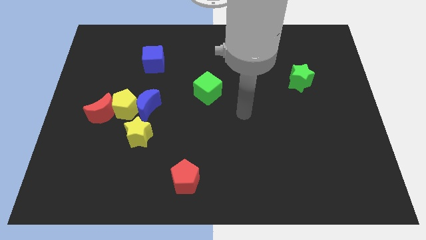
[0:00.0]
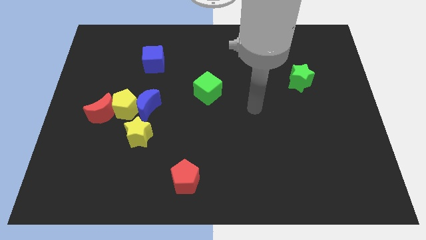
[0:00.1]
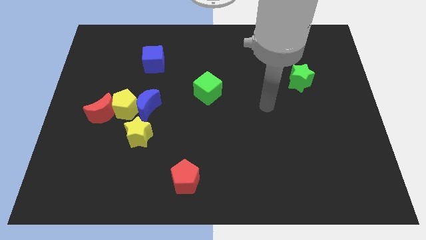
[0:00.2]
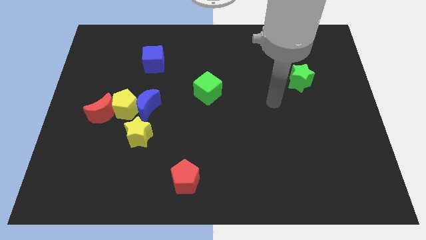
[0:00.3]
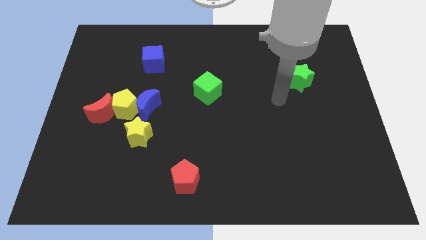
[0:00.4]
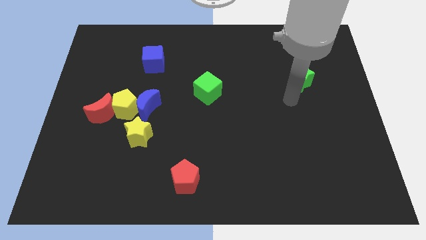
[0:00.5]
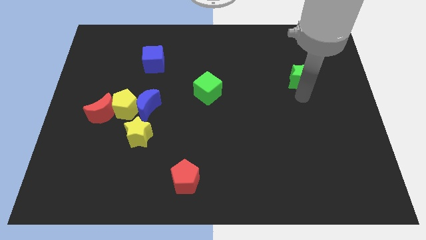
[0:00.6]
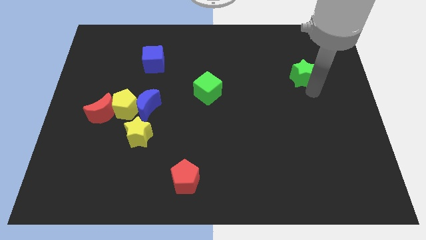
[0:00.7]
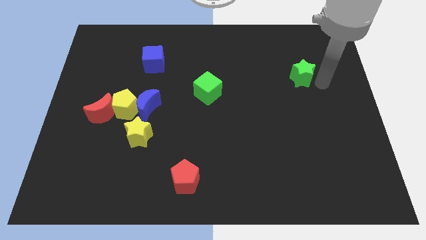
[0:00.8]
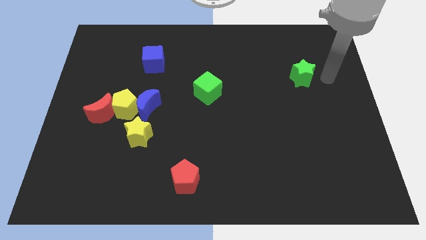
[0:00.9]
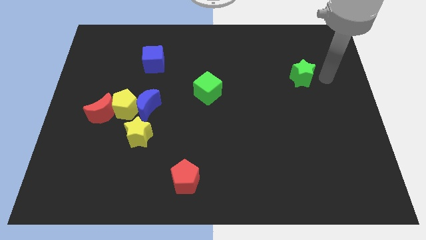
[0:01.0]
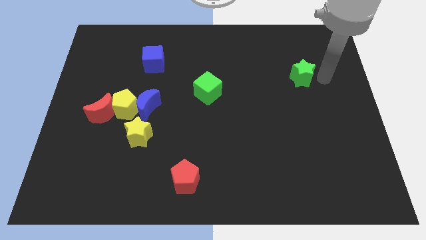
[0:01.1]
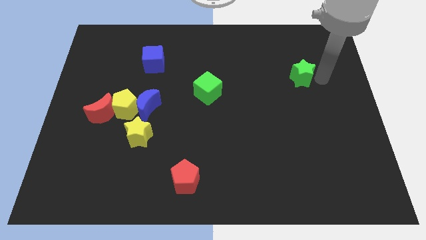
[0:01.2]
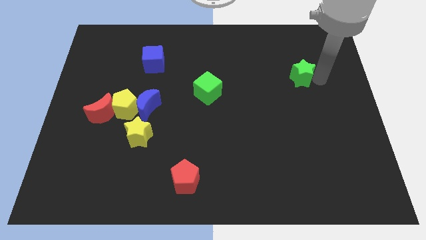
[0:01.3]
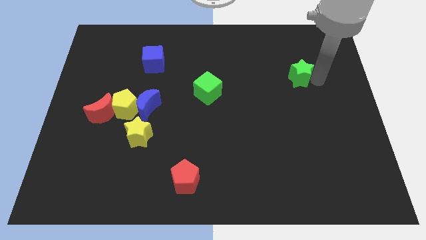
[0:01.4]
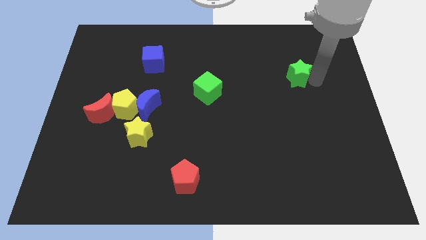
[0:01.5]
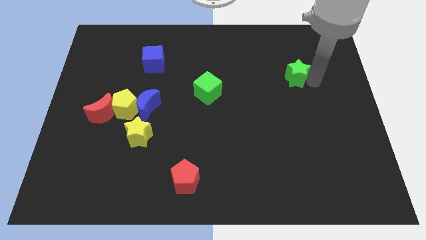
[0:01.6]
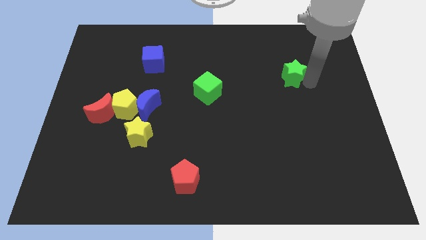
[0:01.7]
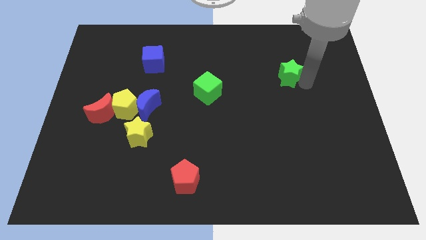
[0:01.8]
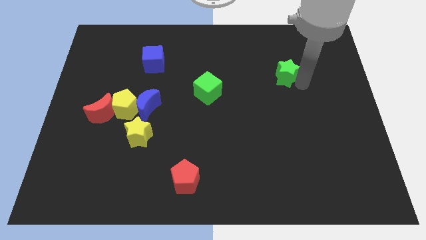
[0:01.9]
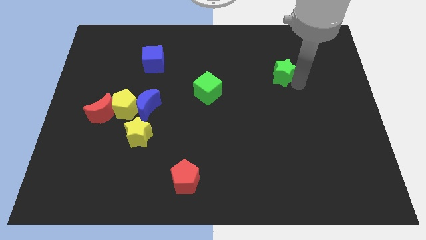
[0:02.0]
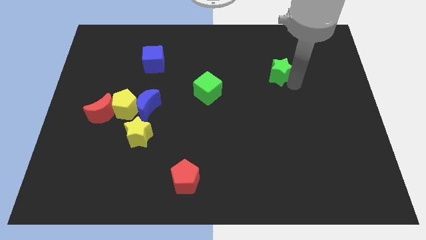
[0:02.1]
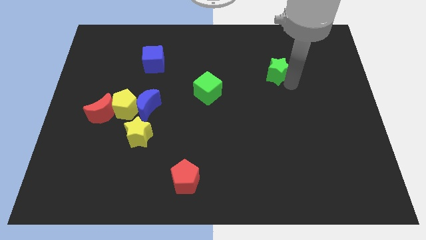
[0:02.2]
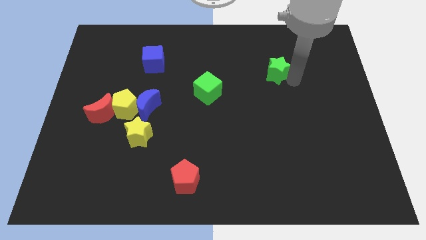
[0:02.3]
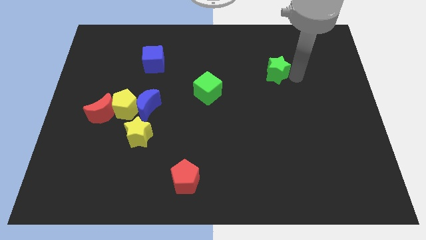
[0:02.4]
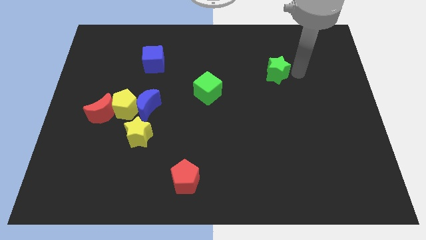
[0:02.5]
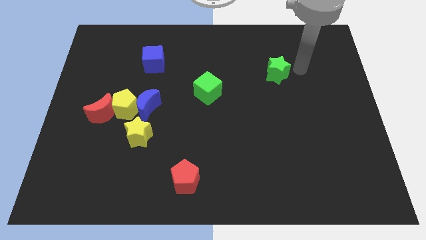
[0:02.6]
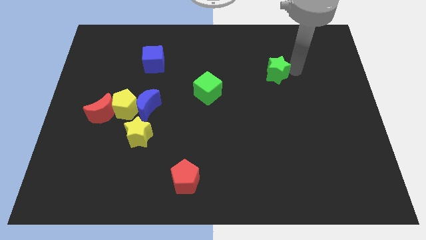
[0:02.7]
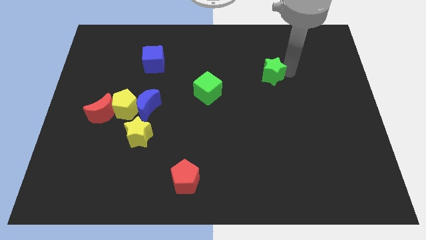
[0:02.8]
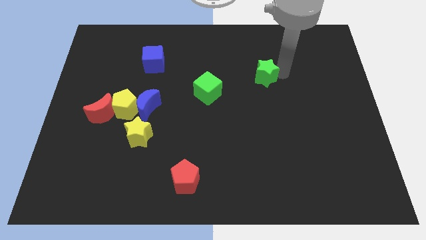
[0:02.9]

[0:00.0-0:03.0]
slide the green star a little left

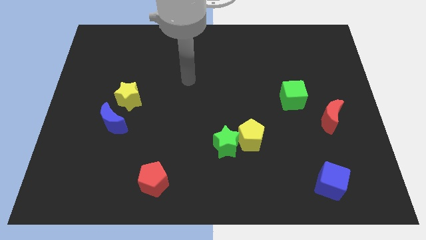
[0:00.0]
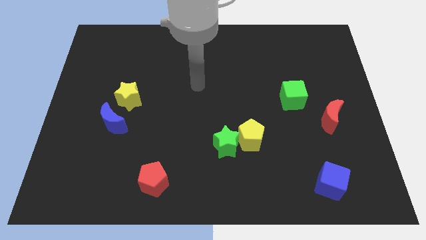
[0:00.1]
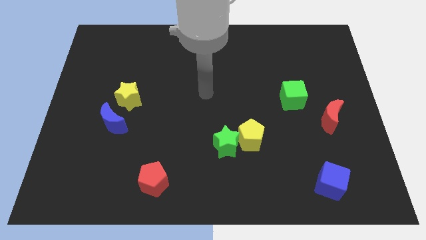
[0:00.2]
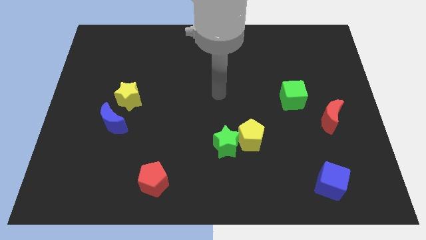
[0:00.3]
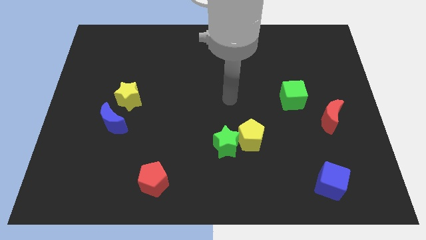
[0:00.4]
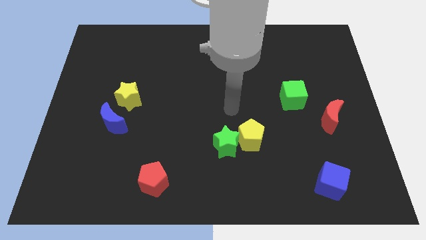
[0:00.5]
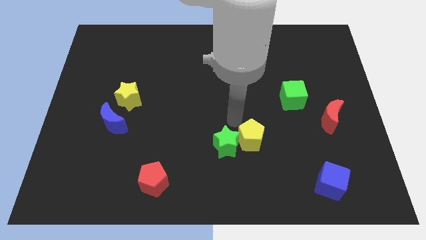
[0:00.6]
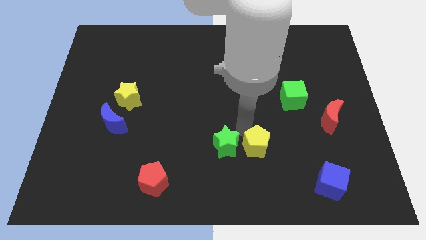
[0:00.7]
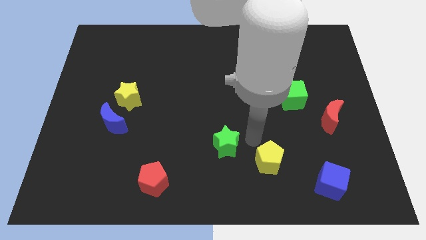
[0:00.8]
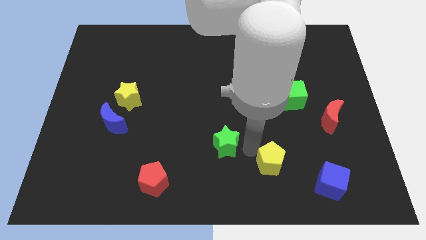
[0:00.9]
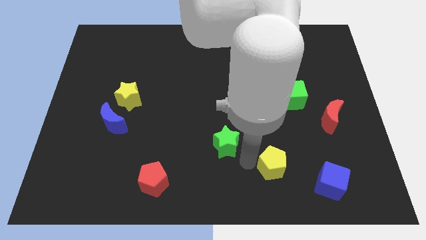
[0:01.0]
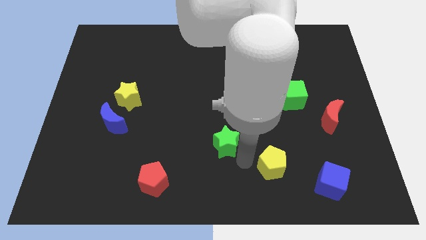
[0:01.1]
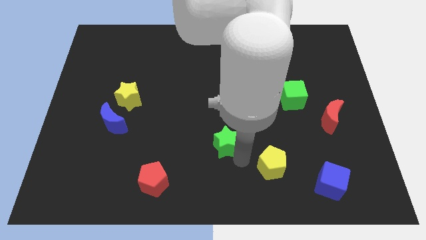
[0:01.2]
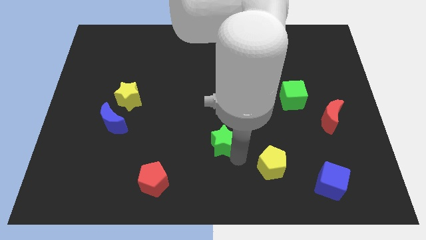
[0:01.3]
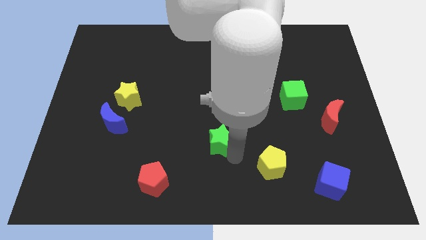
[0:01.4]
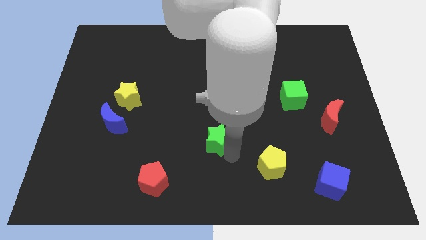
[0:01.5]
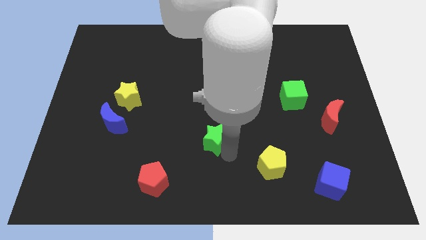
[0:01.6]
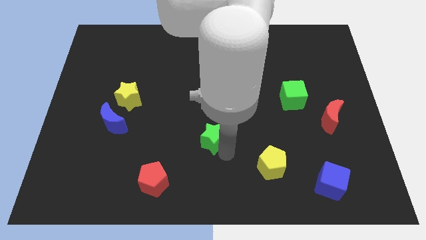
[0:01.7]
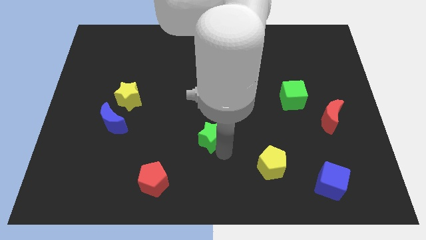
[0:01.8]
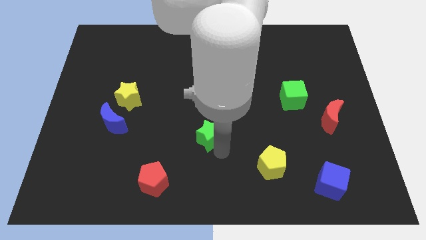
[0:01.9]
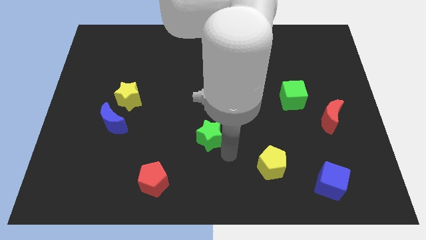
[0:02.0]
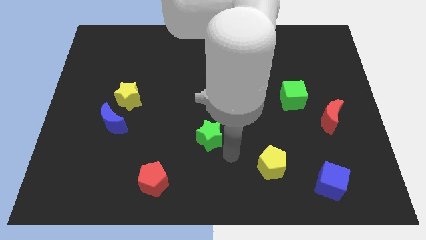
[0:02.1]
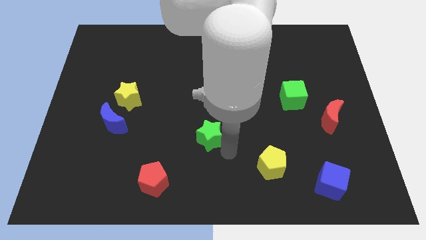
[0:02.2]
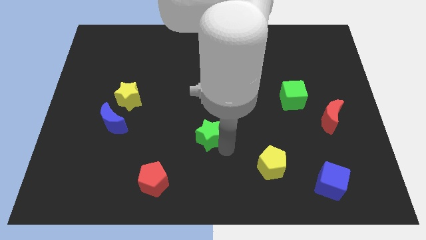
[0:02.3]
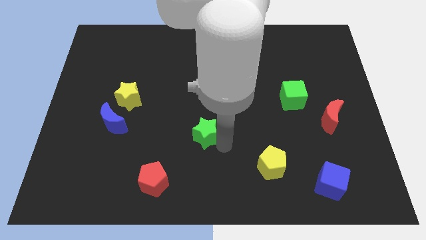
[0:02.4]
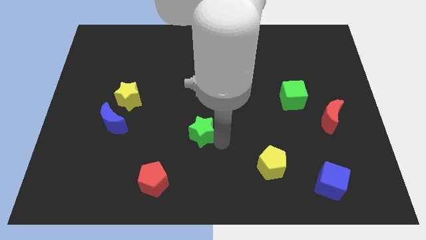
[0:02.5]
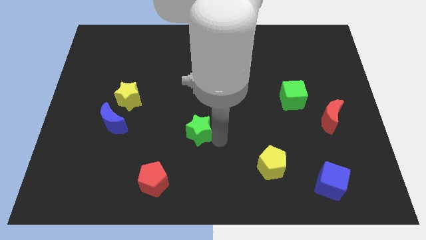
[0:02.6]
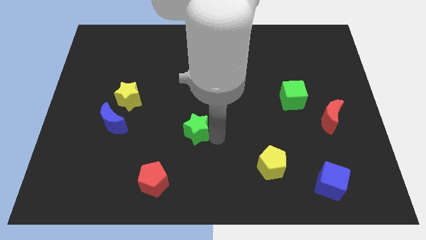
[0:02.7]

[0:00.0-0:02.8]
move the green star diagonally up and to the left slightly

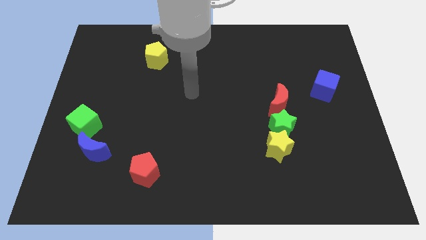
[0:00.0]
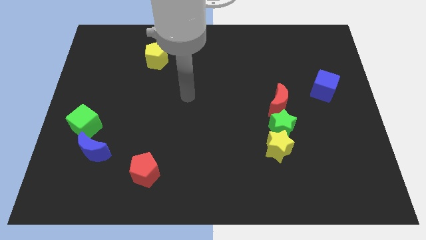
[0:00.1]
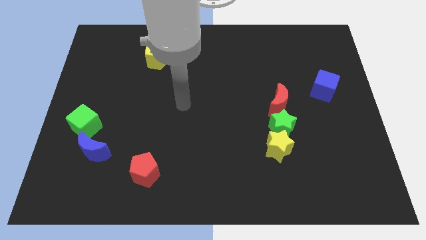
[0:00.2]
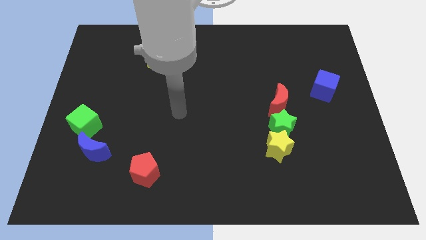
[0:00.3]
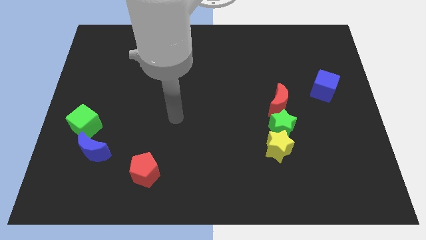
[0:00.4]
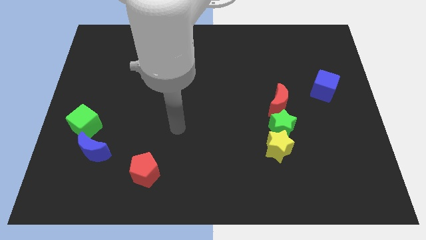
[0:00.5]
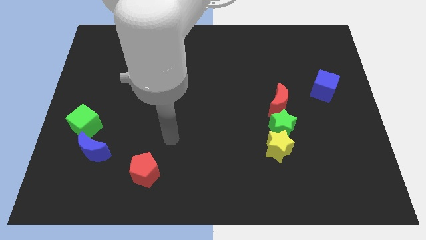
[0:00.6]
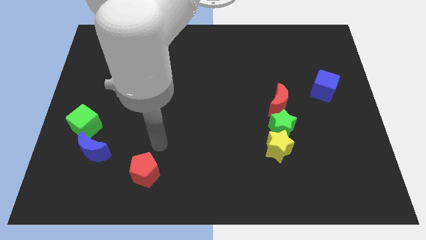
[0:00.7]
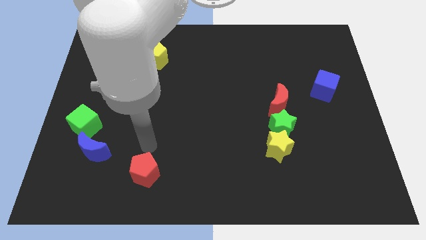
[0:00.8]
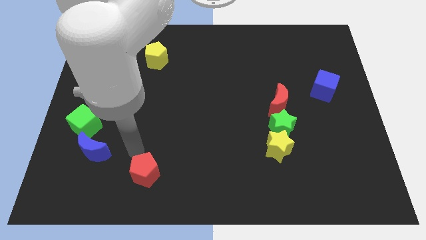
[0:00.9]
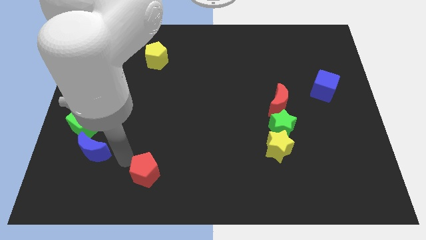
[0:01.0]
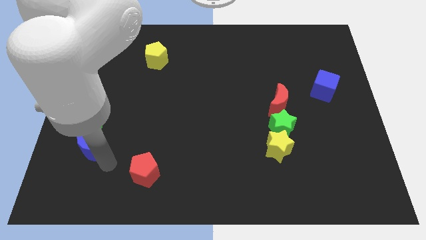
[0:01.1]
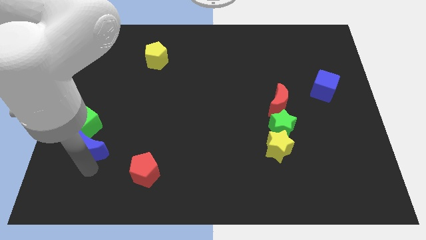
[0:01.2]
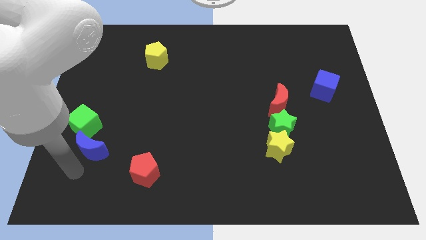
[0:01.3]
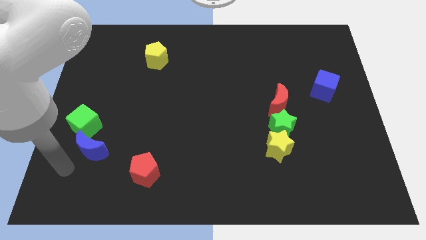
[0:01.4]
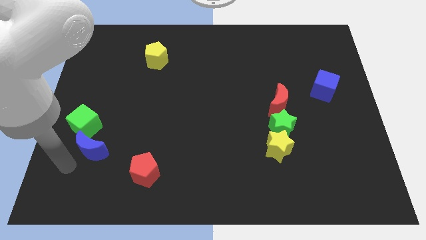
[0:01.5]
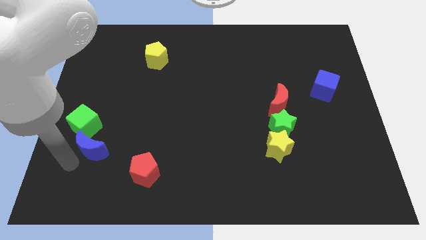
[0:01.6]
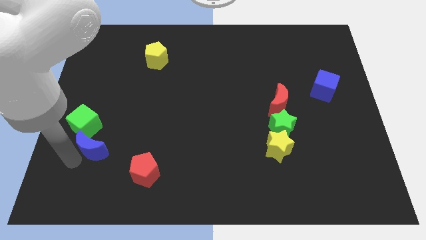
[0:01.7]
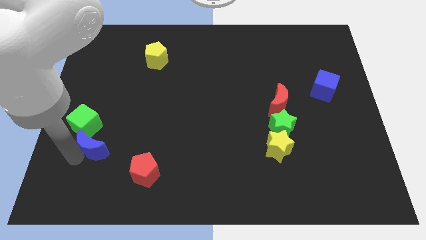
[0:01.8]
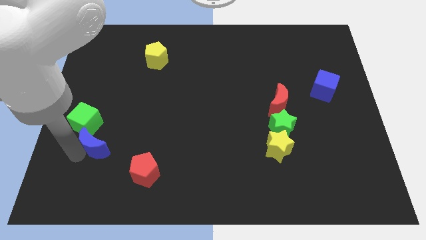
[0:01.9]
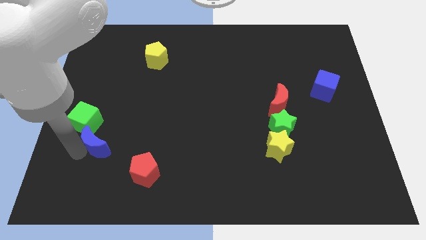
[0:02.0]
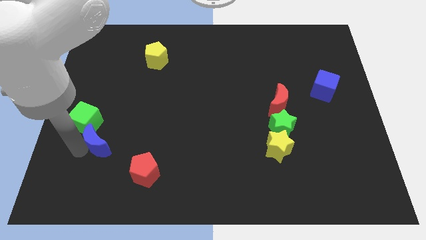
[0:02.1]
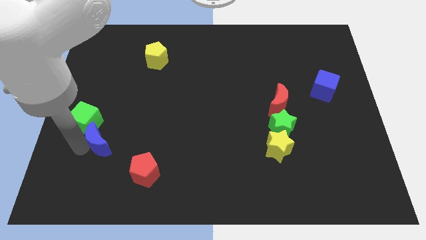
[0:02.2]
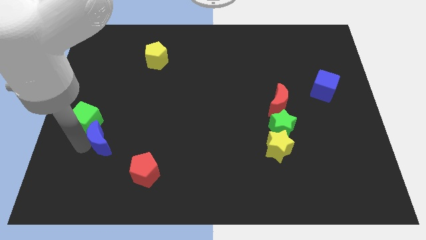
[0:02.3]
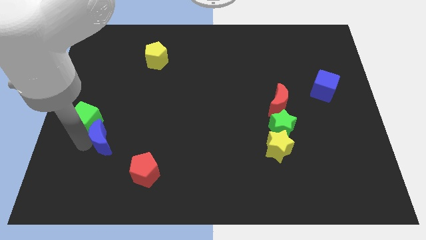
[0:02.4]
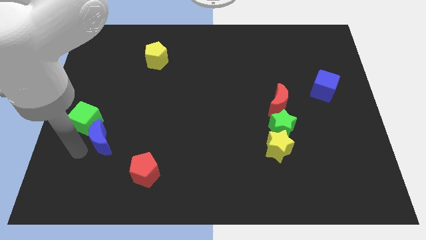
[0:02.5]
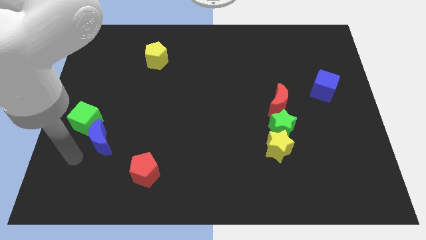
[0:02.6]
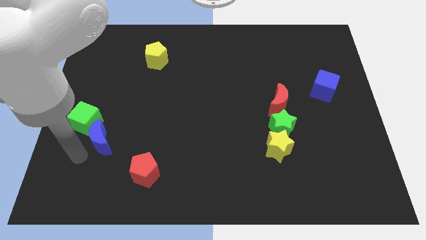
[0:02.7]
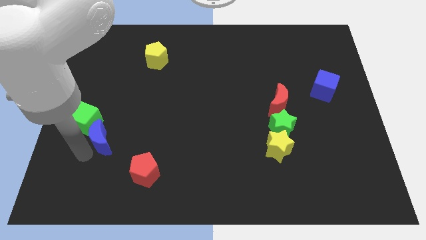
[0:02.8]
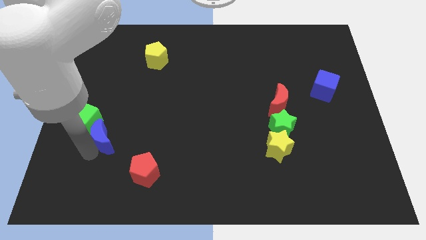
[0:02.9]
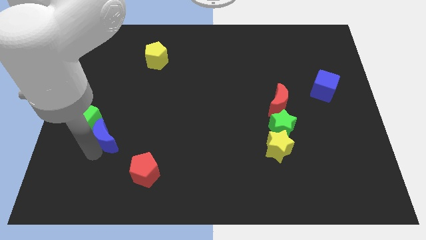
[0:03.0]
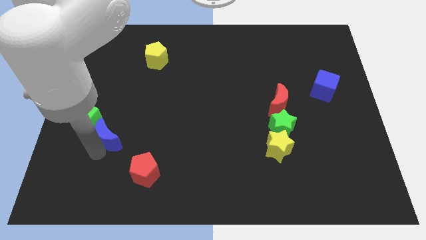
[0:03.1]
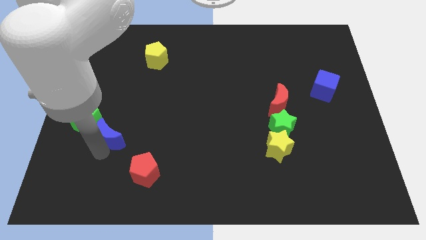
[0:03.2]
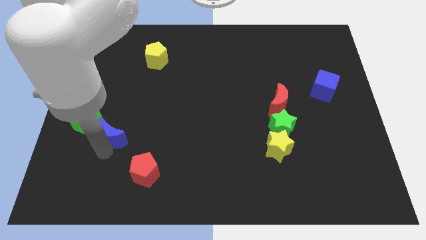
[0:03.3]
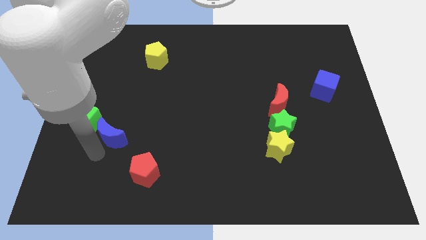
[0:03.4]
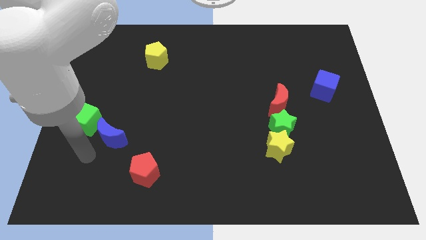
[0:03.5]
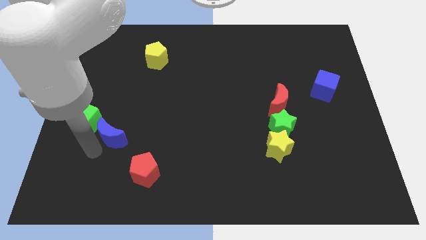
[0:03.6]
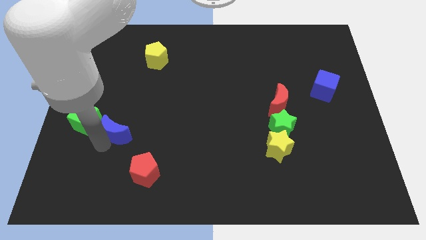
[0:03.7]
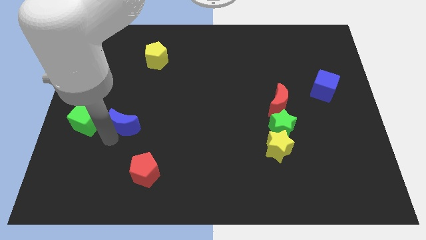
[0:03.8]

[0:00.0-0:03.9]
slide the blue moon up and right a little bit
